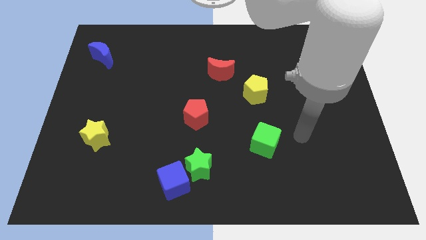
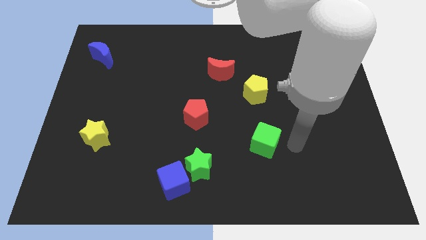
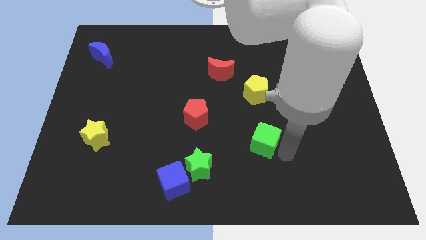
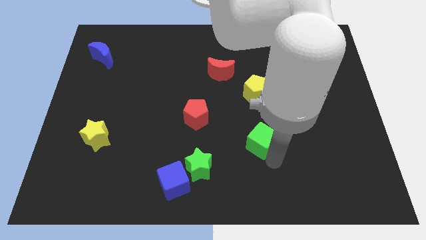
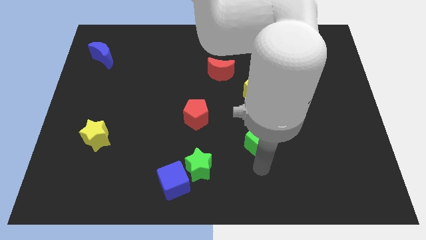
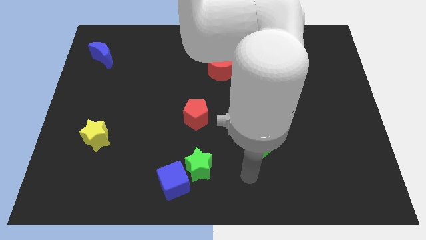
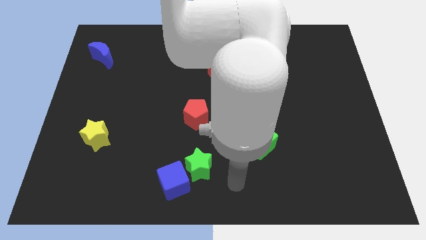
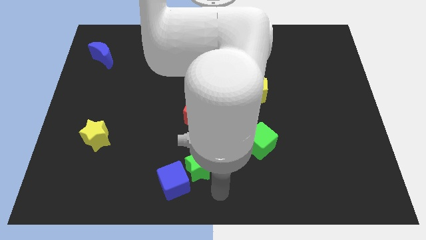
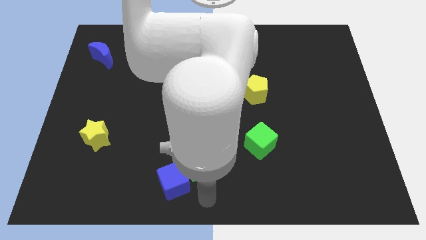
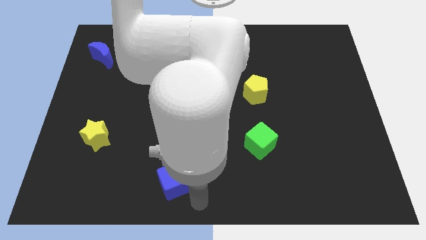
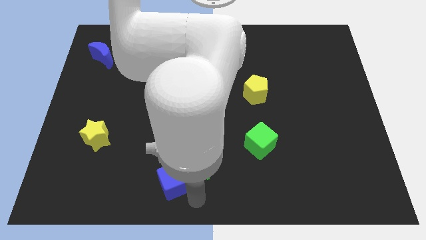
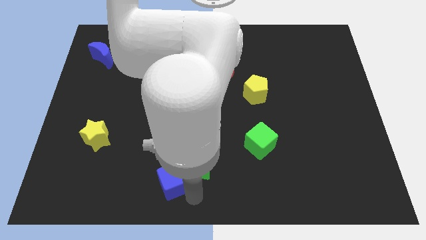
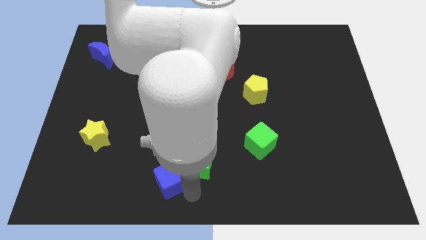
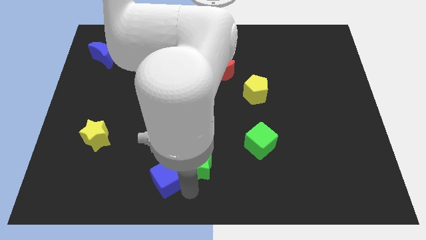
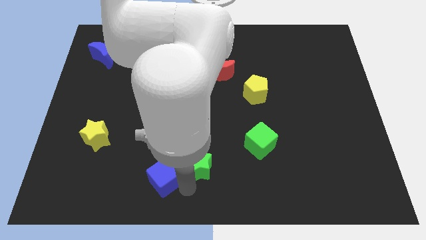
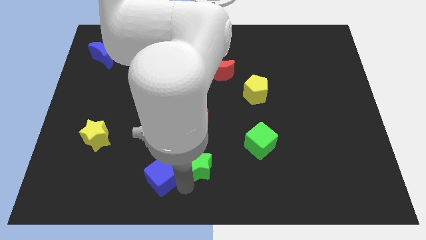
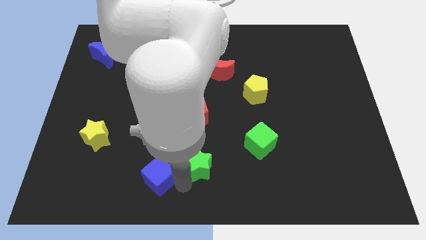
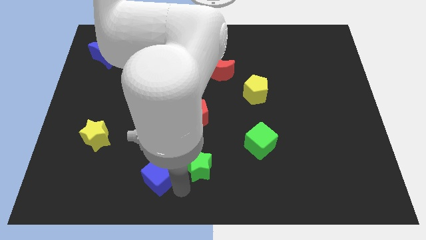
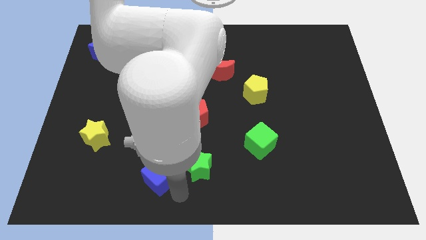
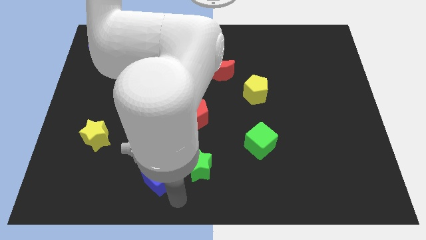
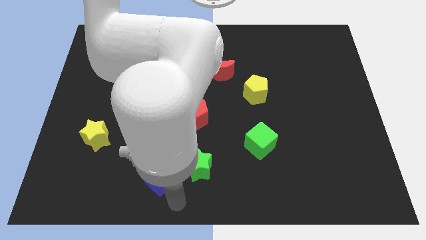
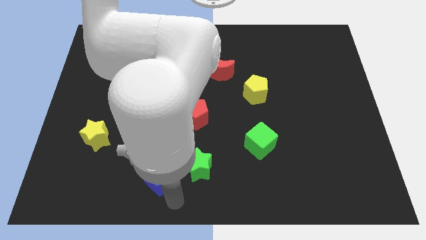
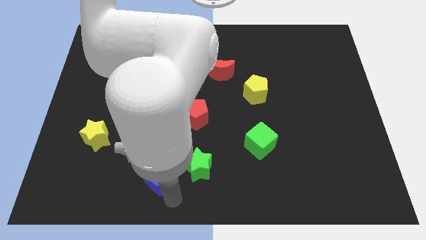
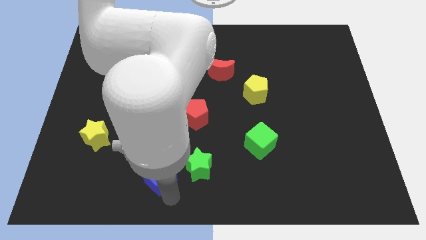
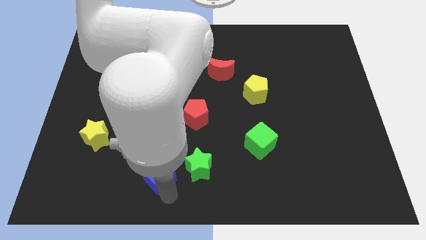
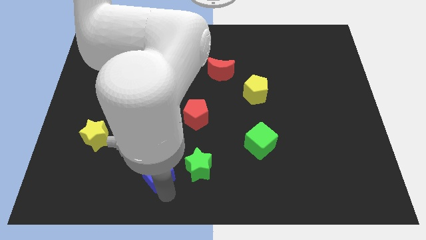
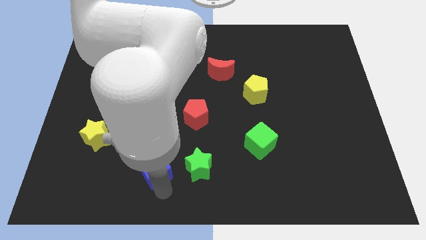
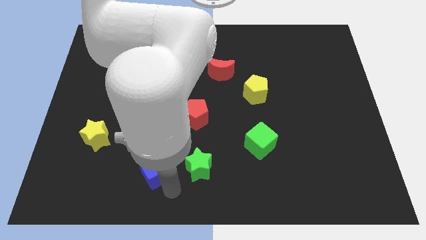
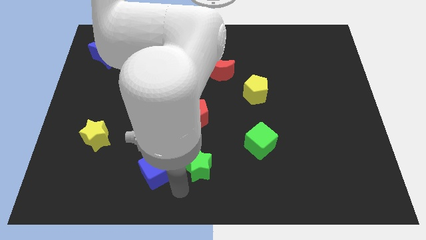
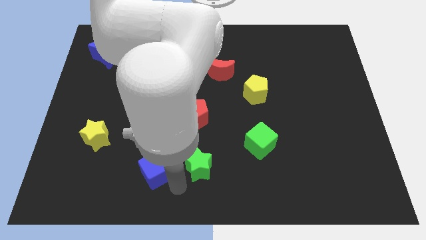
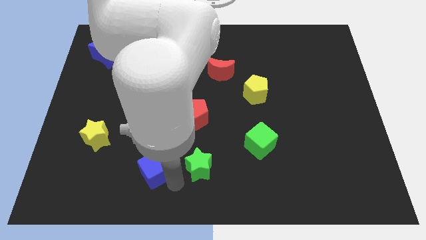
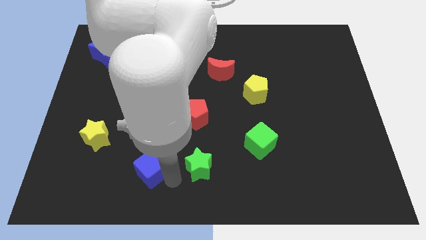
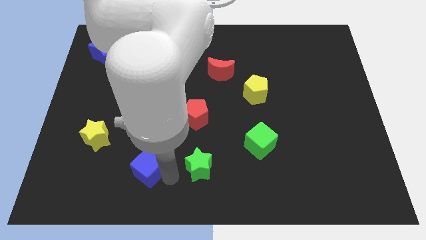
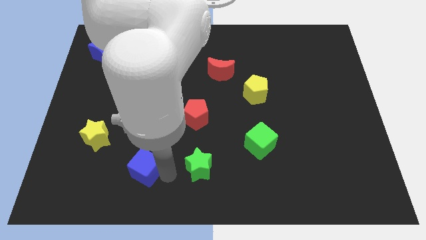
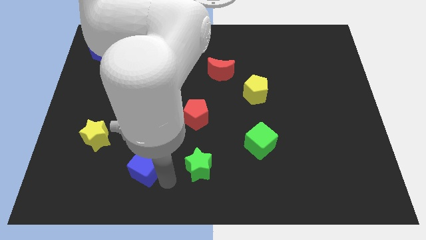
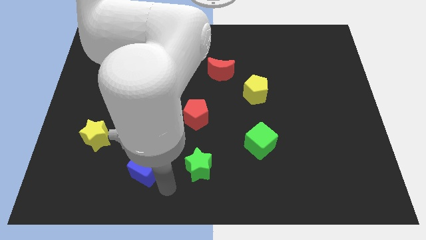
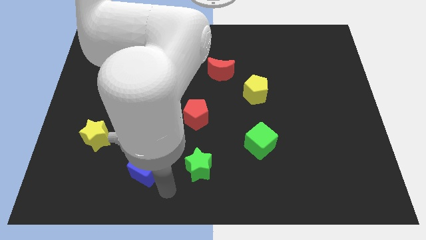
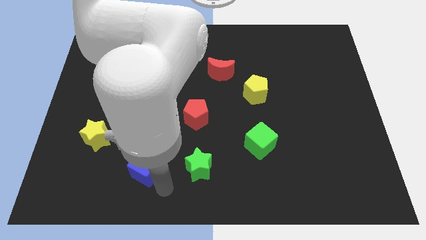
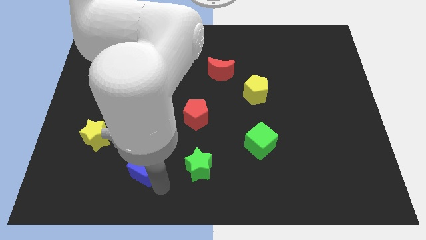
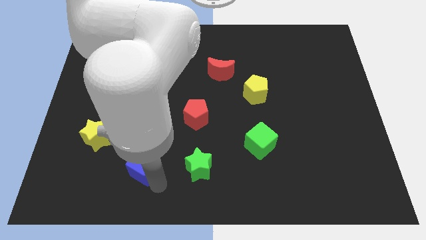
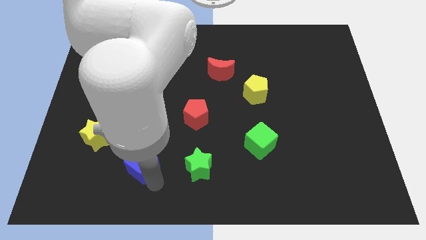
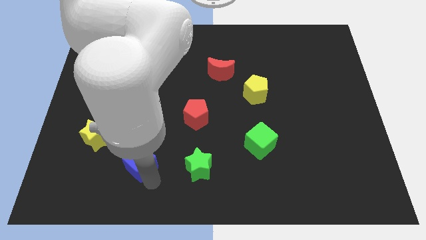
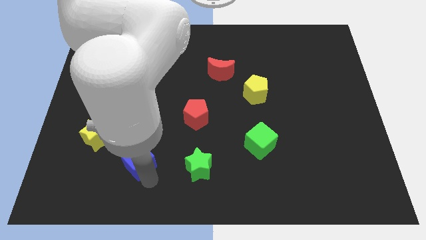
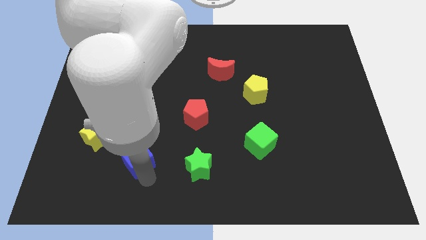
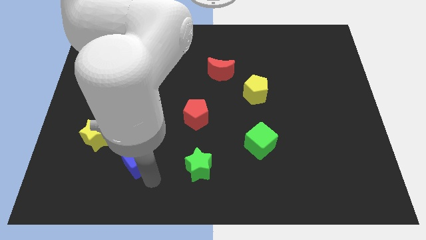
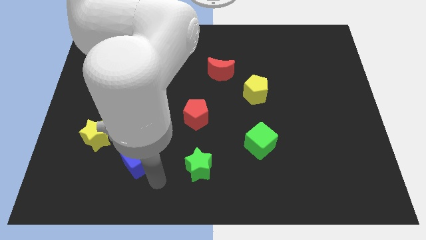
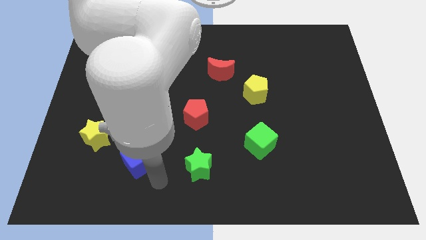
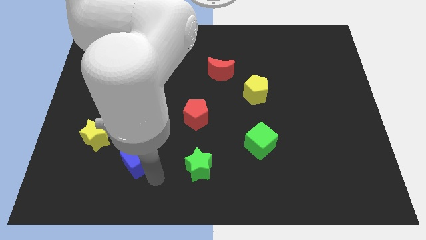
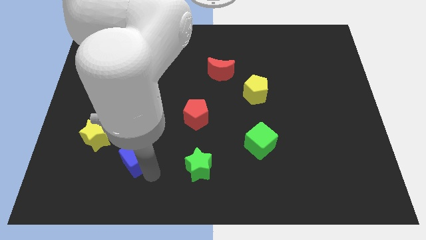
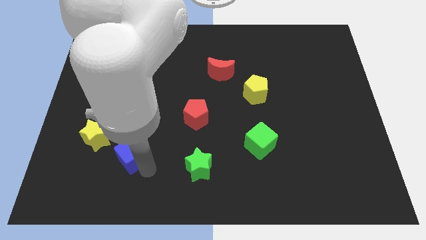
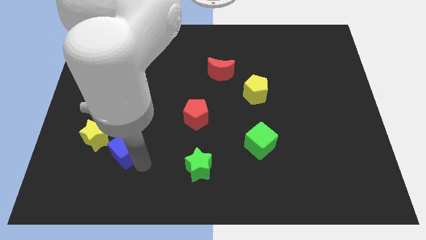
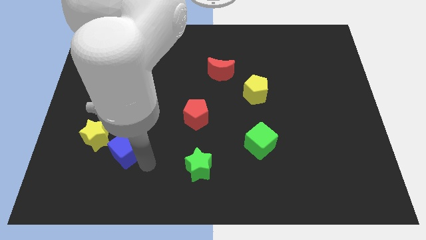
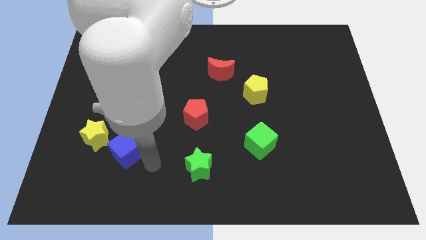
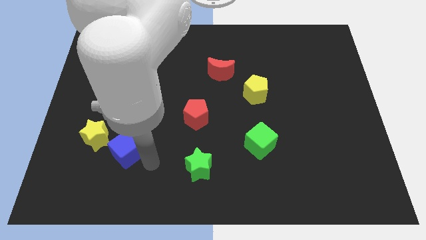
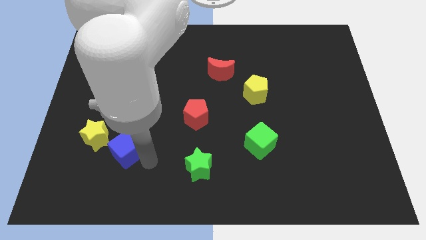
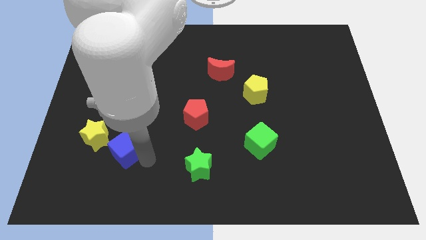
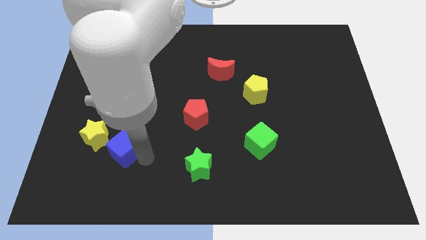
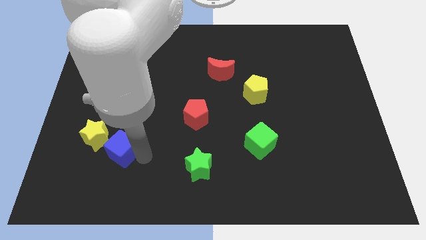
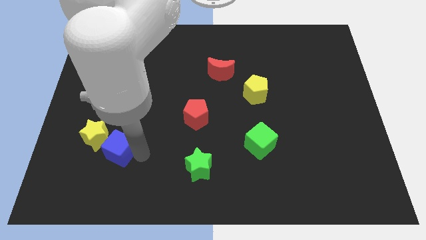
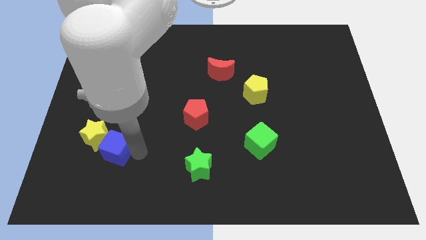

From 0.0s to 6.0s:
move the blue cube close to the yellow star
